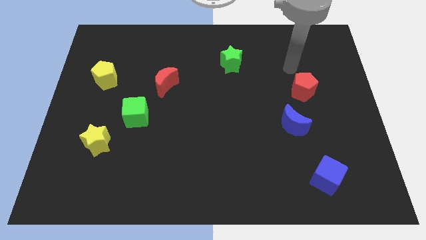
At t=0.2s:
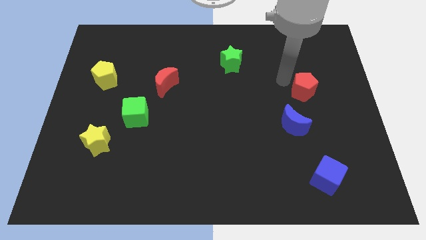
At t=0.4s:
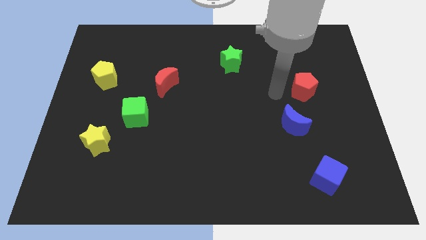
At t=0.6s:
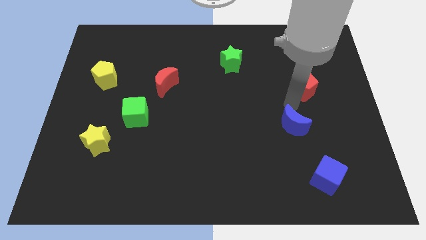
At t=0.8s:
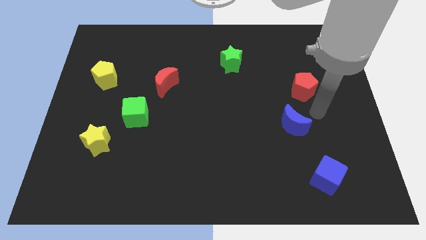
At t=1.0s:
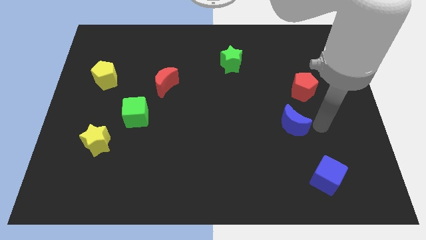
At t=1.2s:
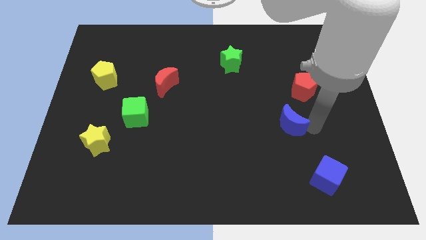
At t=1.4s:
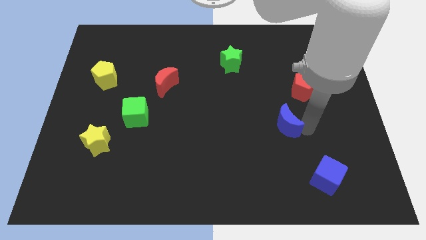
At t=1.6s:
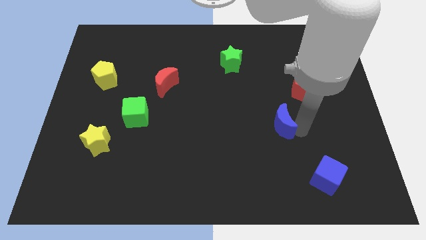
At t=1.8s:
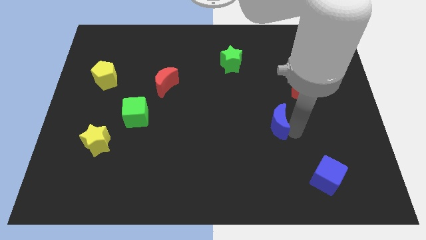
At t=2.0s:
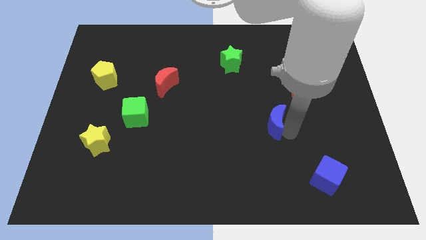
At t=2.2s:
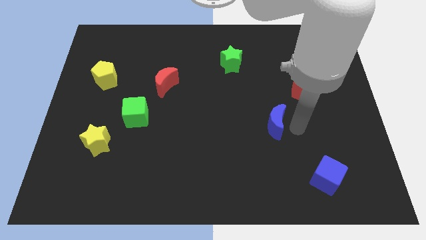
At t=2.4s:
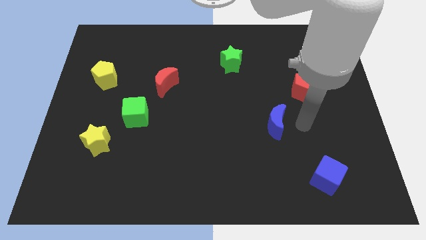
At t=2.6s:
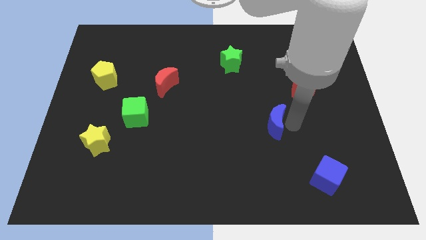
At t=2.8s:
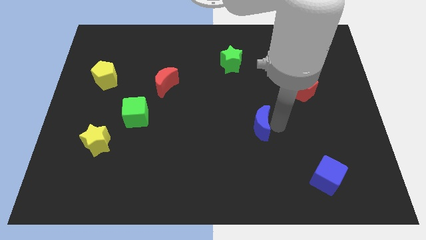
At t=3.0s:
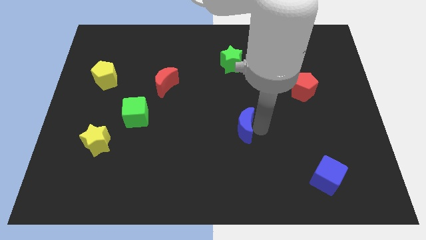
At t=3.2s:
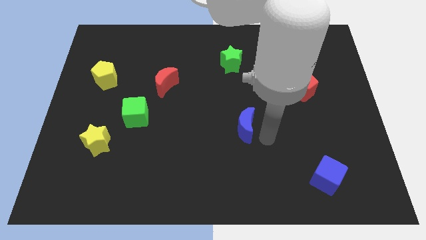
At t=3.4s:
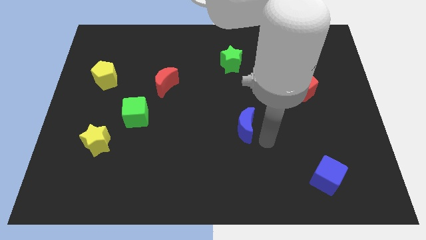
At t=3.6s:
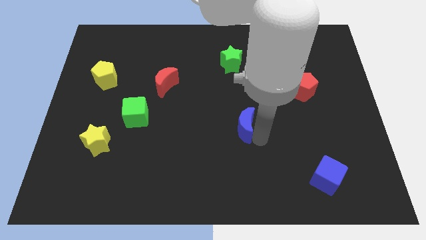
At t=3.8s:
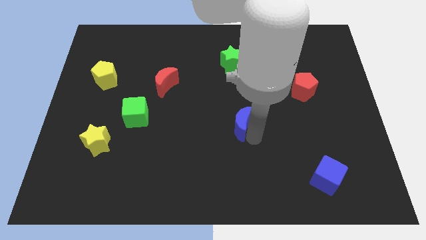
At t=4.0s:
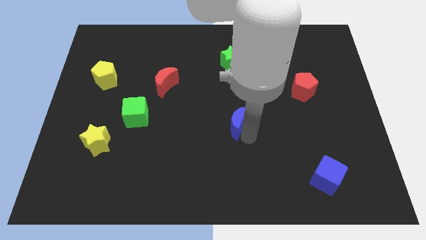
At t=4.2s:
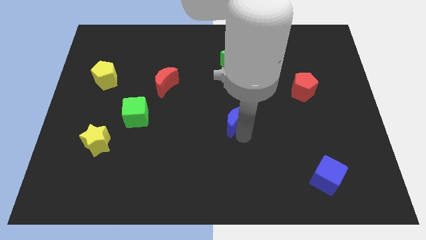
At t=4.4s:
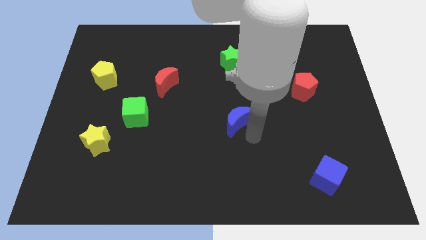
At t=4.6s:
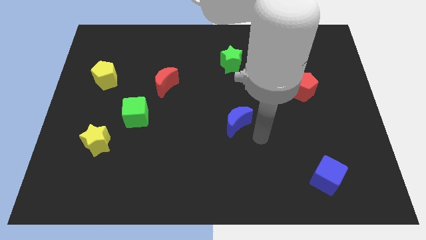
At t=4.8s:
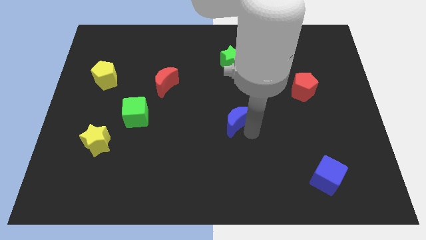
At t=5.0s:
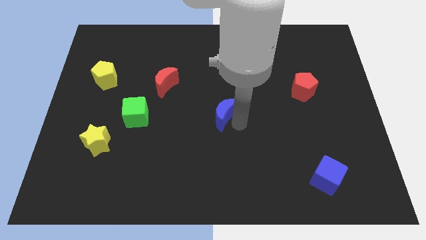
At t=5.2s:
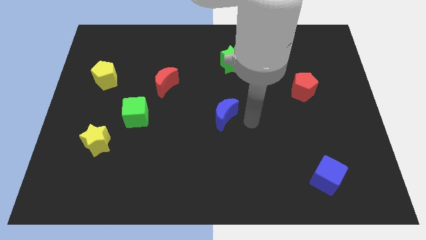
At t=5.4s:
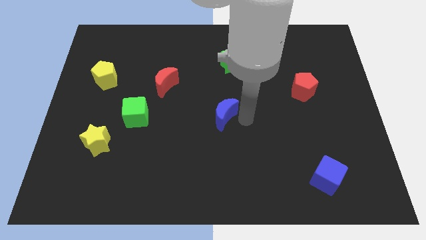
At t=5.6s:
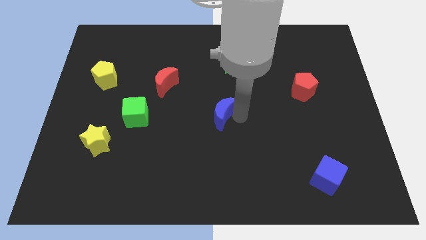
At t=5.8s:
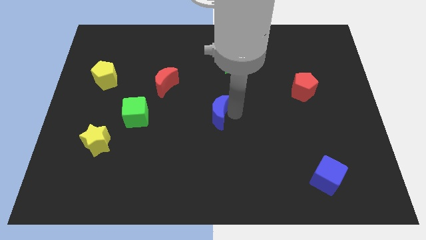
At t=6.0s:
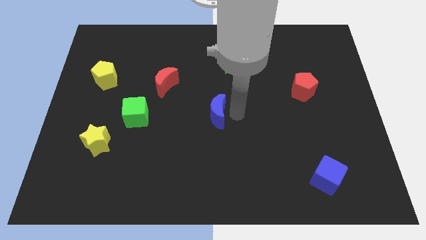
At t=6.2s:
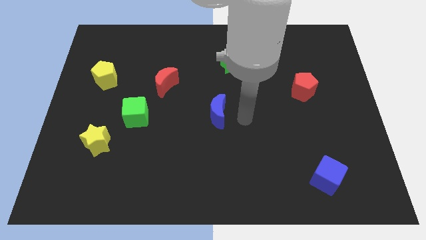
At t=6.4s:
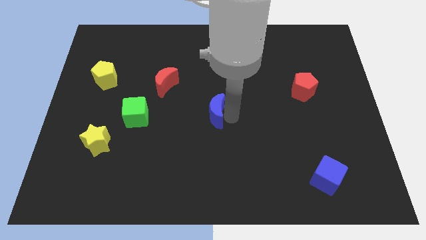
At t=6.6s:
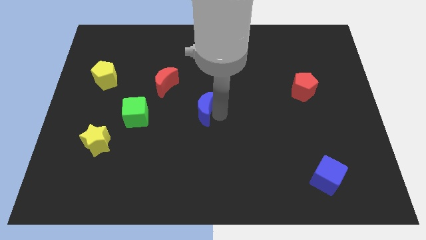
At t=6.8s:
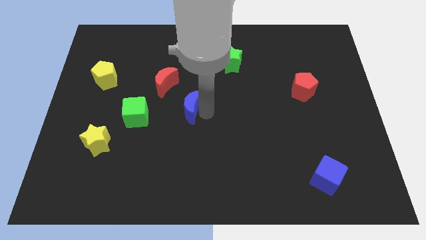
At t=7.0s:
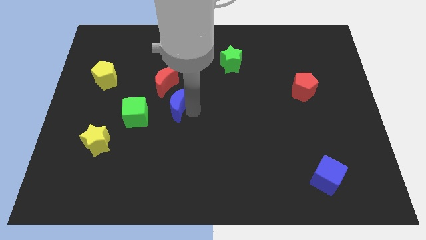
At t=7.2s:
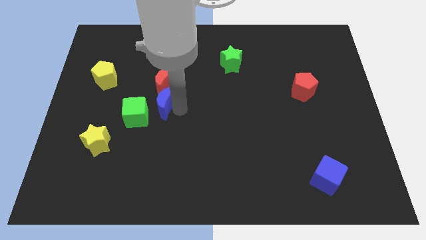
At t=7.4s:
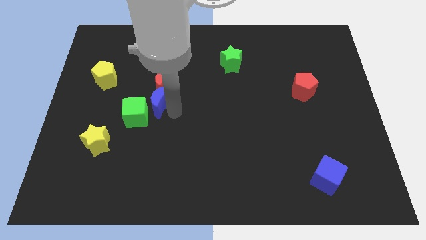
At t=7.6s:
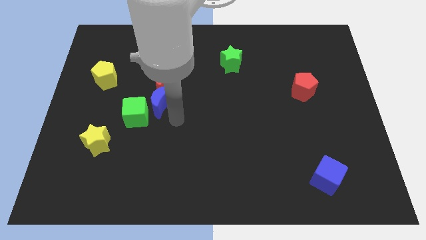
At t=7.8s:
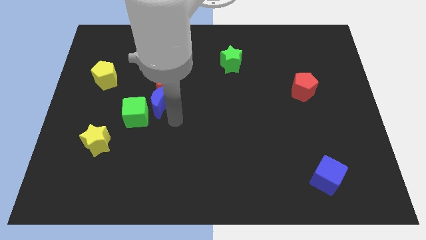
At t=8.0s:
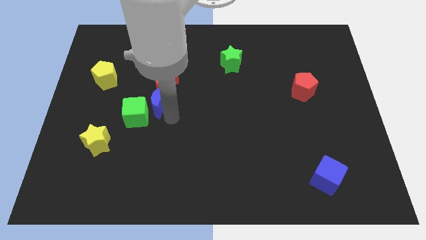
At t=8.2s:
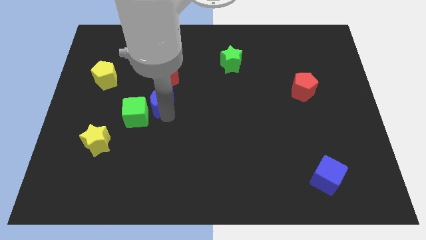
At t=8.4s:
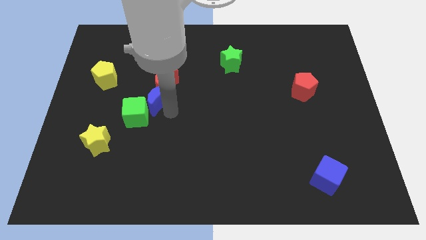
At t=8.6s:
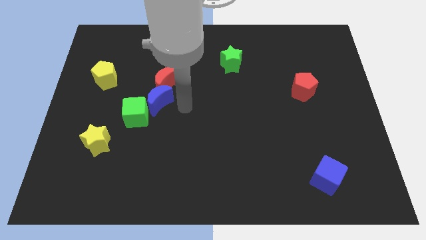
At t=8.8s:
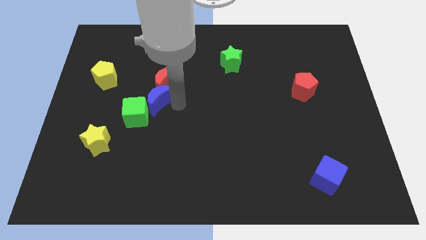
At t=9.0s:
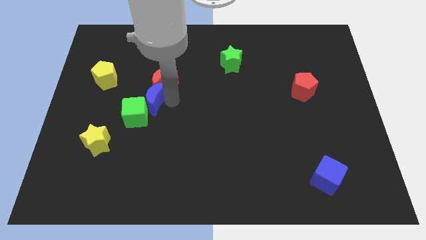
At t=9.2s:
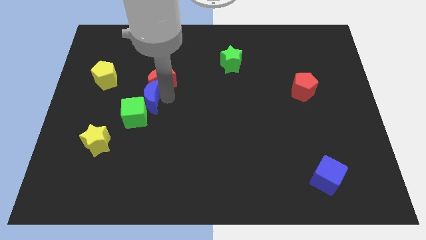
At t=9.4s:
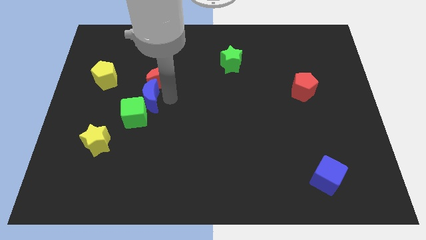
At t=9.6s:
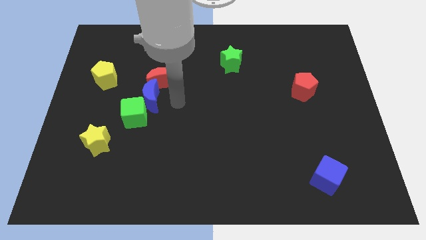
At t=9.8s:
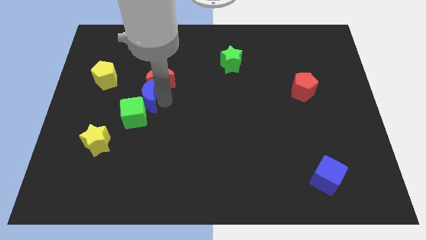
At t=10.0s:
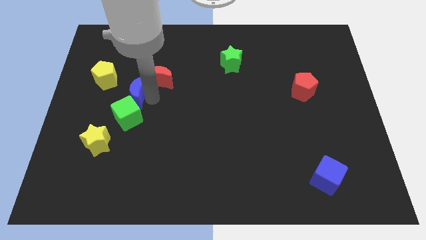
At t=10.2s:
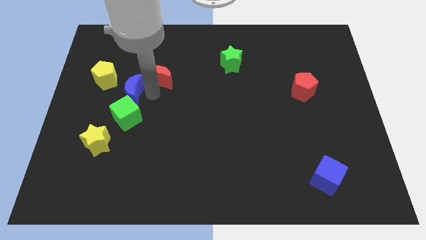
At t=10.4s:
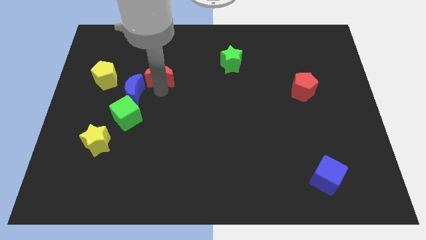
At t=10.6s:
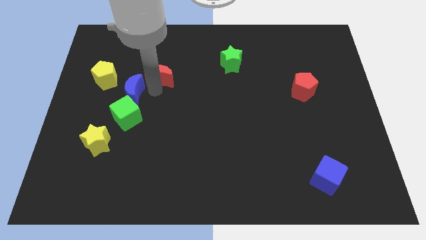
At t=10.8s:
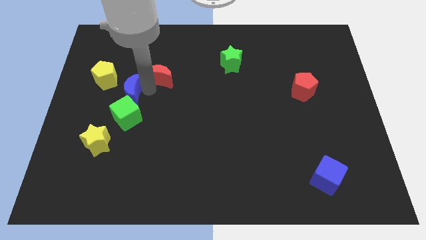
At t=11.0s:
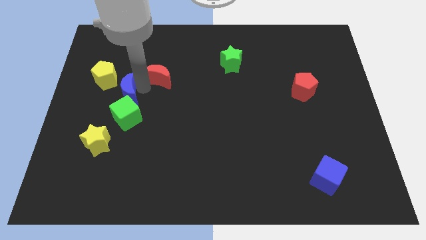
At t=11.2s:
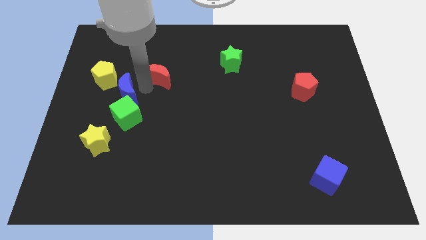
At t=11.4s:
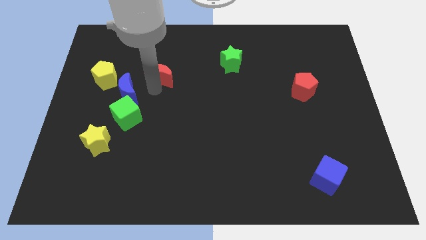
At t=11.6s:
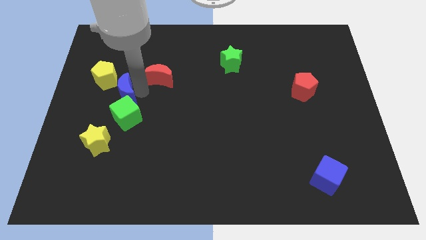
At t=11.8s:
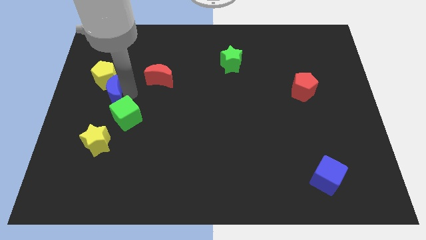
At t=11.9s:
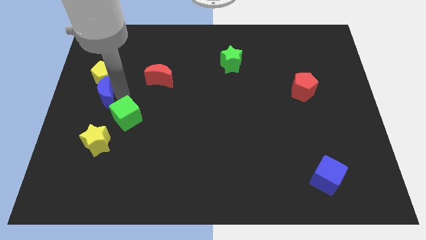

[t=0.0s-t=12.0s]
put the blue moon to the left side of the board

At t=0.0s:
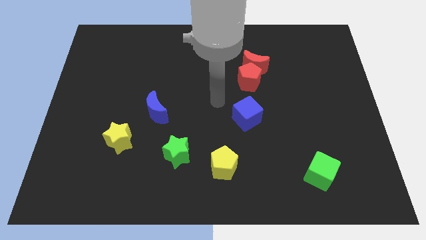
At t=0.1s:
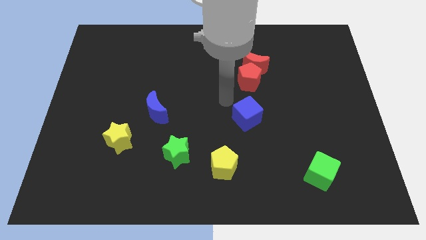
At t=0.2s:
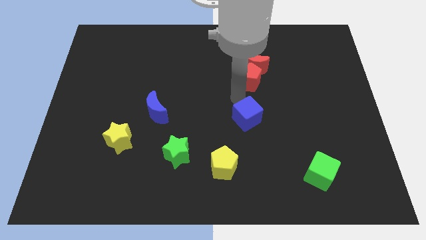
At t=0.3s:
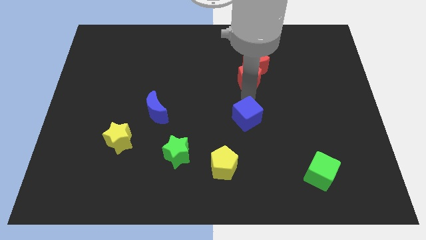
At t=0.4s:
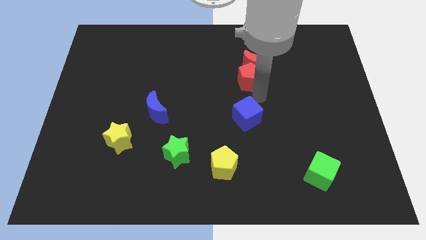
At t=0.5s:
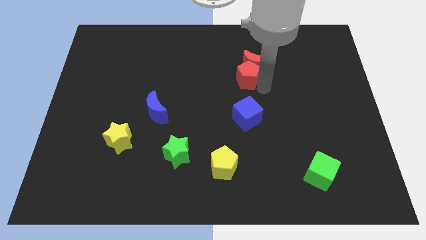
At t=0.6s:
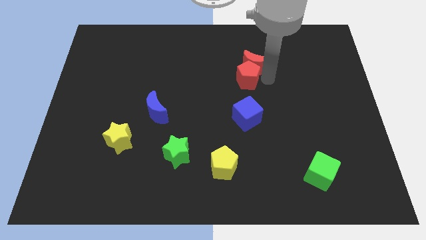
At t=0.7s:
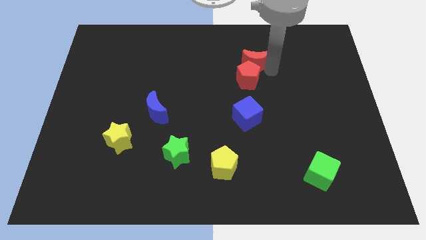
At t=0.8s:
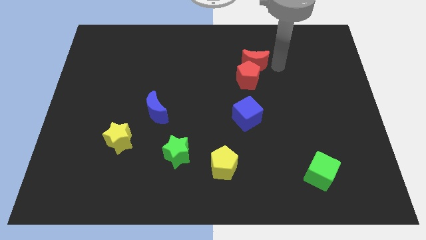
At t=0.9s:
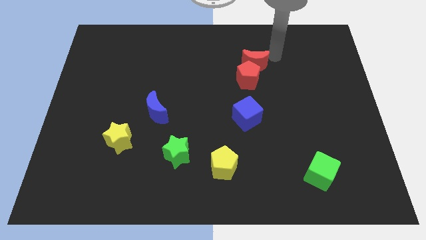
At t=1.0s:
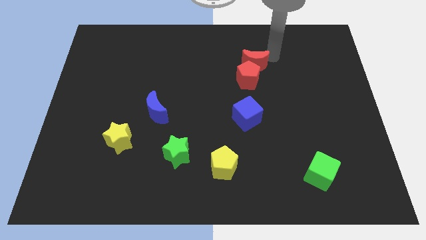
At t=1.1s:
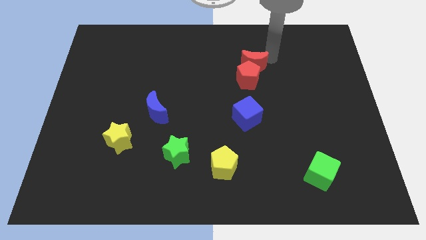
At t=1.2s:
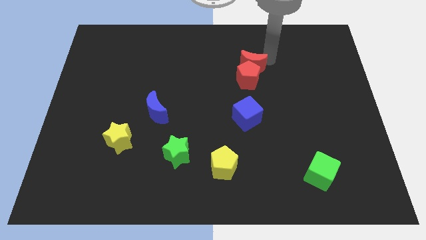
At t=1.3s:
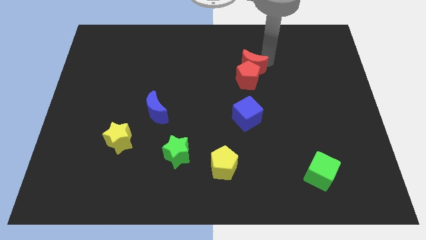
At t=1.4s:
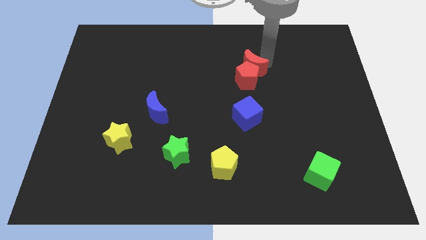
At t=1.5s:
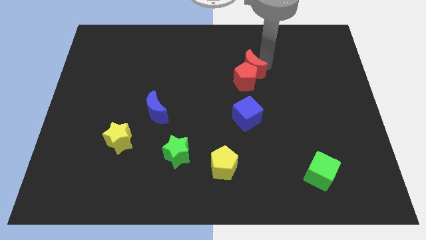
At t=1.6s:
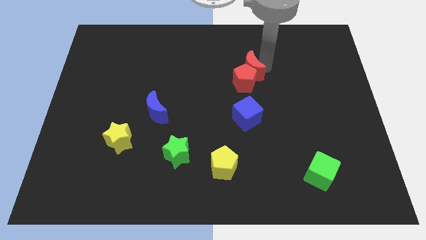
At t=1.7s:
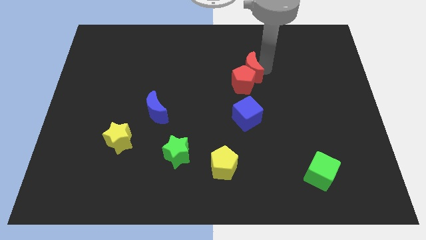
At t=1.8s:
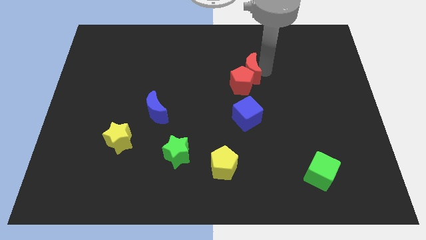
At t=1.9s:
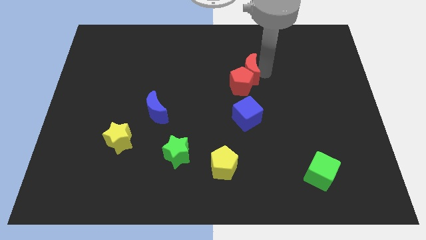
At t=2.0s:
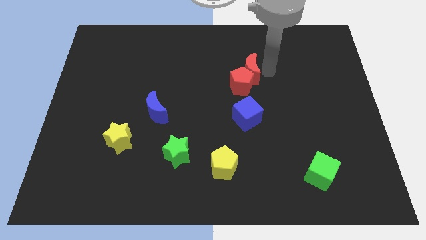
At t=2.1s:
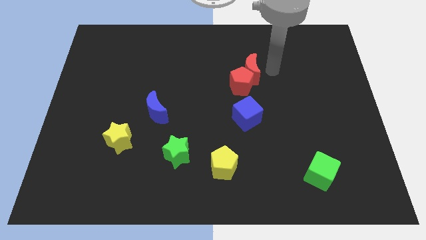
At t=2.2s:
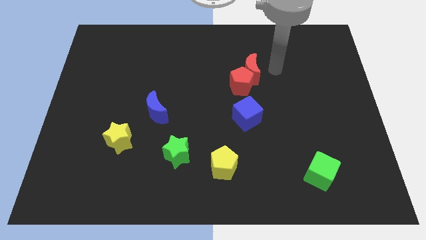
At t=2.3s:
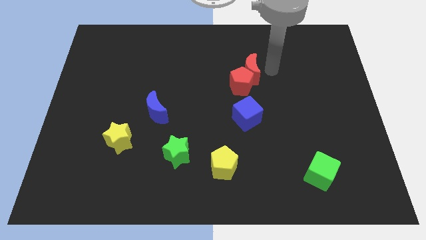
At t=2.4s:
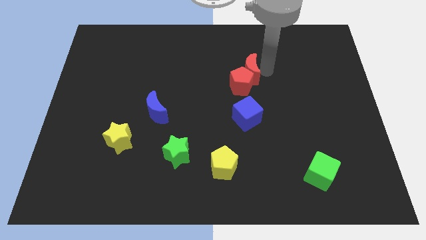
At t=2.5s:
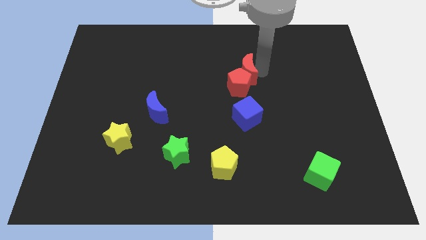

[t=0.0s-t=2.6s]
move the red moon to the center

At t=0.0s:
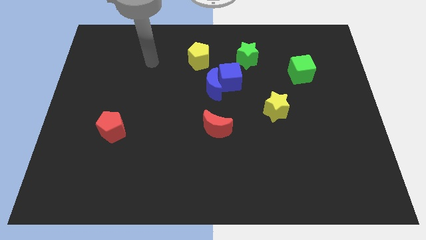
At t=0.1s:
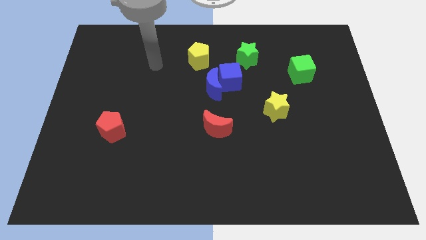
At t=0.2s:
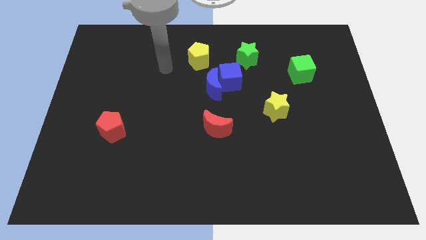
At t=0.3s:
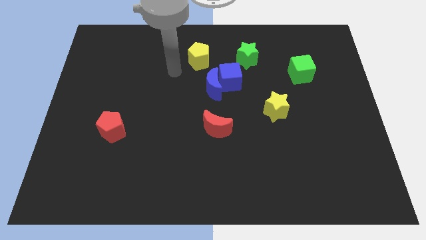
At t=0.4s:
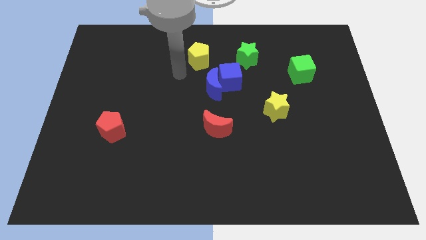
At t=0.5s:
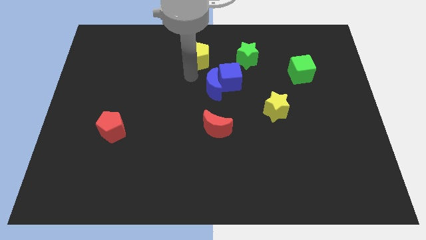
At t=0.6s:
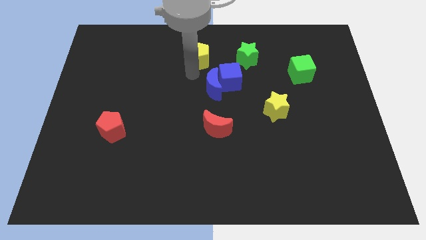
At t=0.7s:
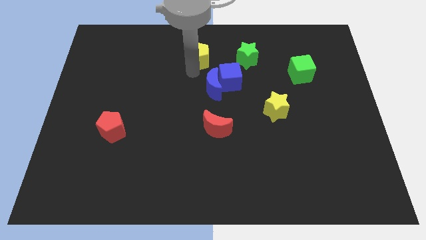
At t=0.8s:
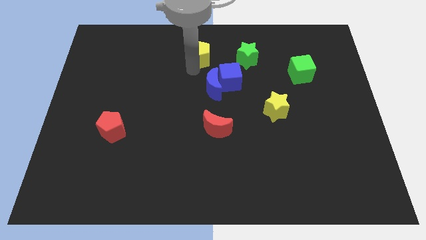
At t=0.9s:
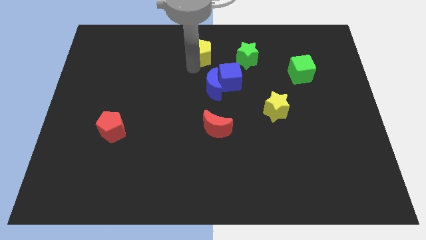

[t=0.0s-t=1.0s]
move the yellow pentagon to the top
